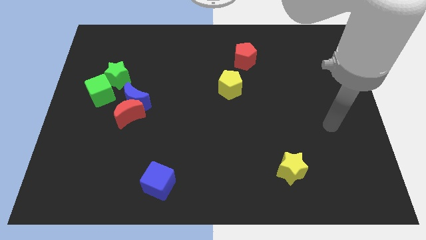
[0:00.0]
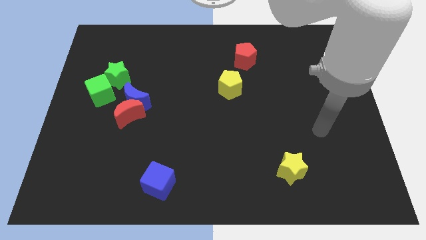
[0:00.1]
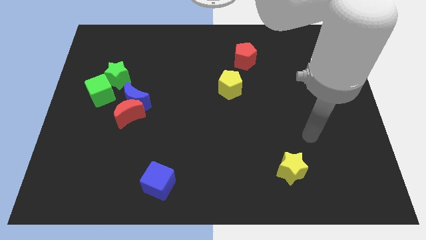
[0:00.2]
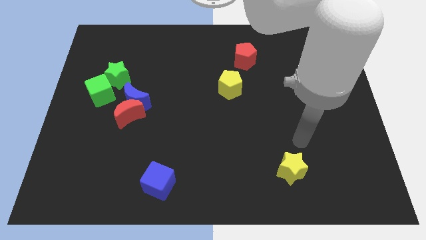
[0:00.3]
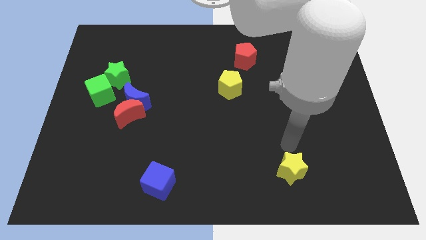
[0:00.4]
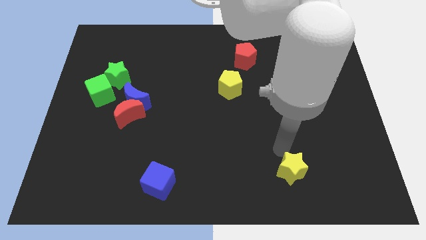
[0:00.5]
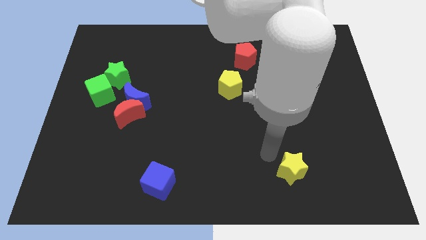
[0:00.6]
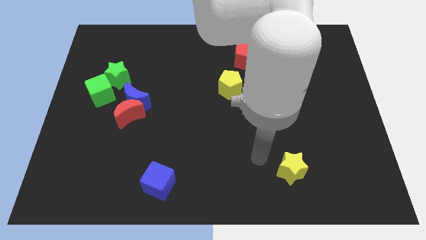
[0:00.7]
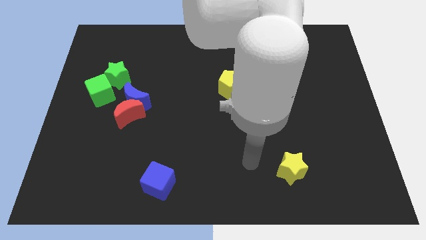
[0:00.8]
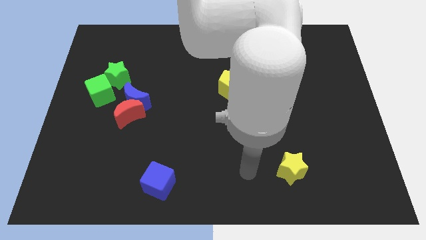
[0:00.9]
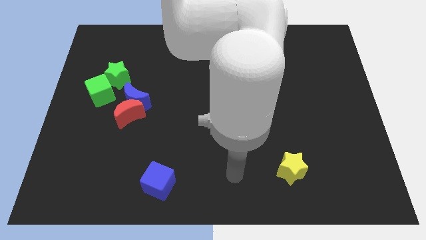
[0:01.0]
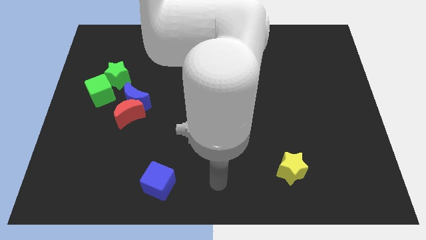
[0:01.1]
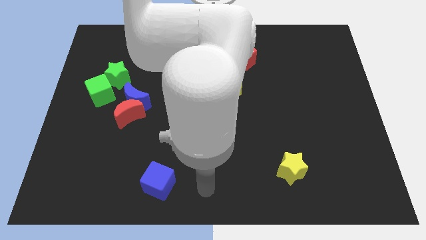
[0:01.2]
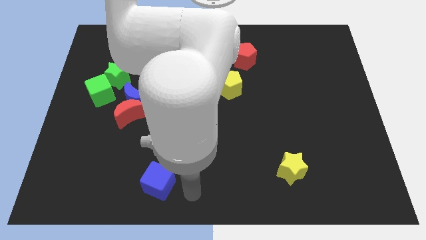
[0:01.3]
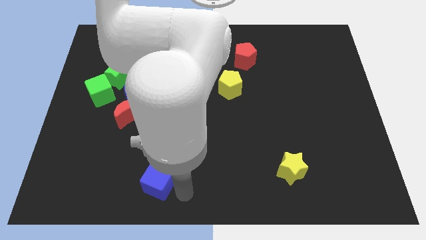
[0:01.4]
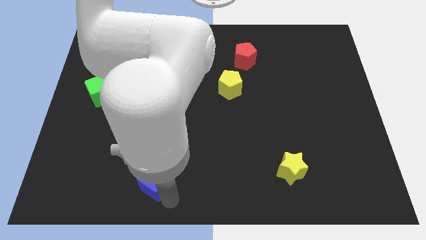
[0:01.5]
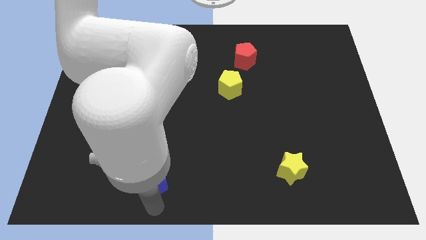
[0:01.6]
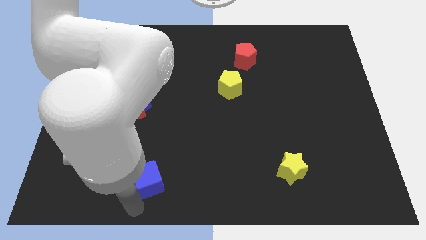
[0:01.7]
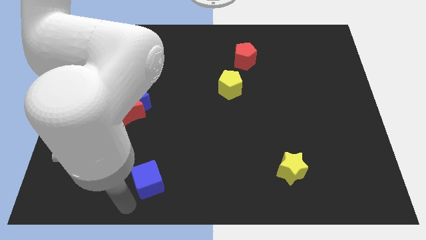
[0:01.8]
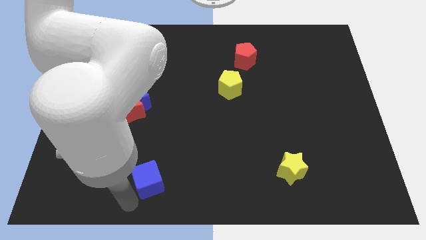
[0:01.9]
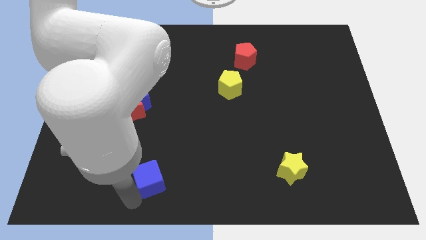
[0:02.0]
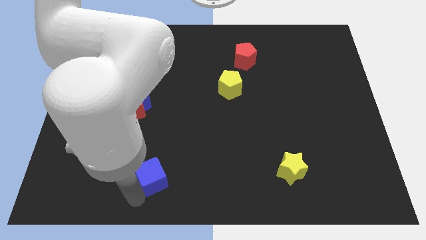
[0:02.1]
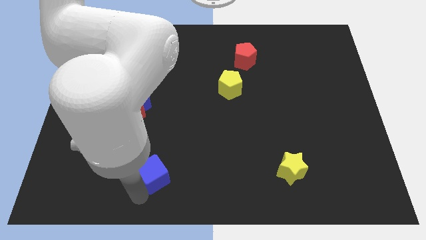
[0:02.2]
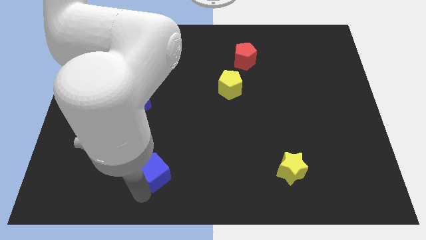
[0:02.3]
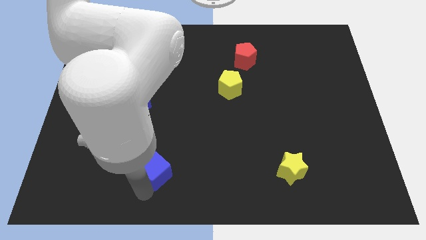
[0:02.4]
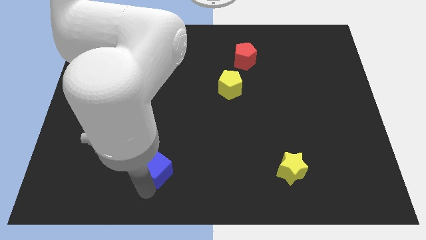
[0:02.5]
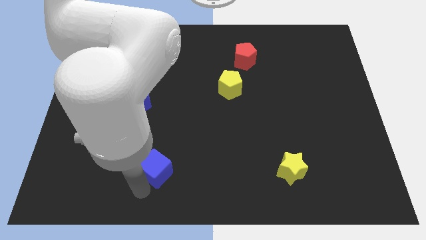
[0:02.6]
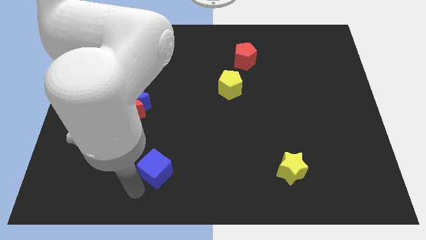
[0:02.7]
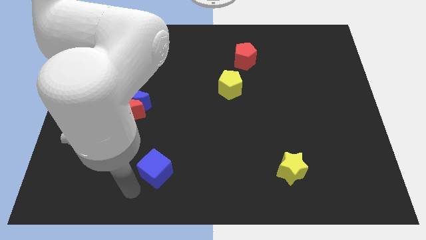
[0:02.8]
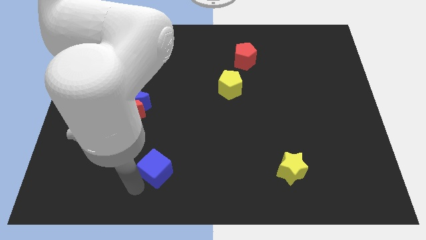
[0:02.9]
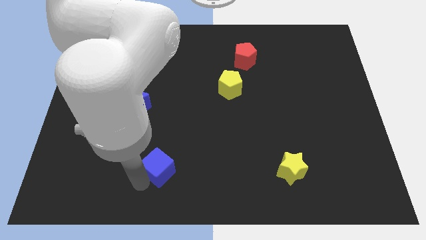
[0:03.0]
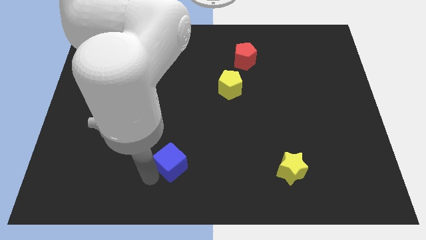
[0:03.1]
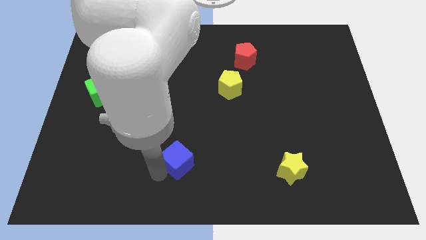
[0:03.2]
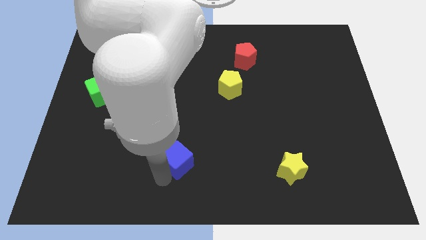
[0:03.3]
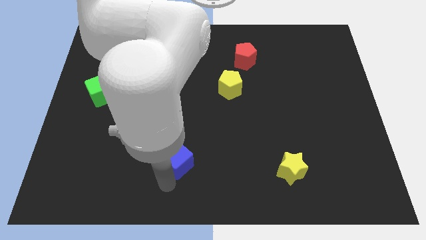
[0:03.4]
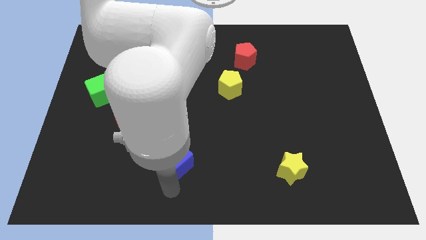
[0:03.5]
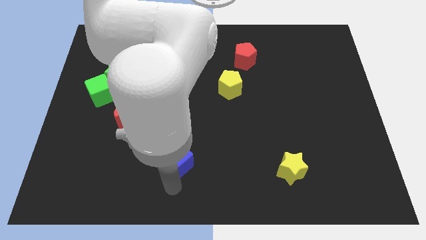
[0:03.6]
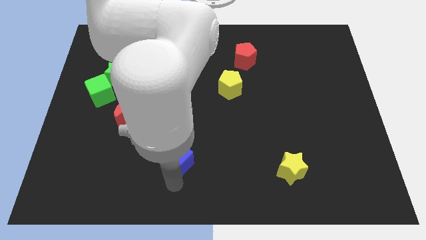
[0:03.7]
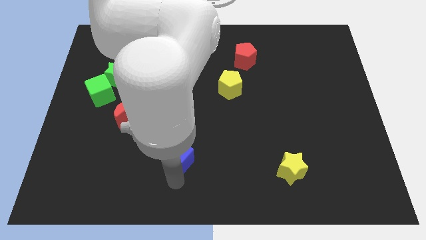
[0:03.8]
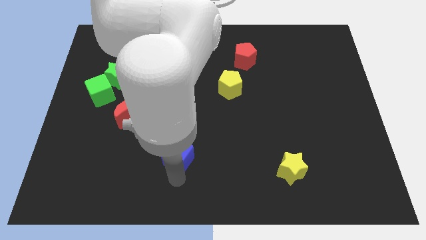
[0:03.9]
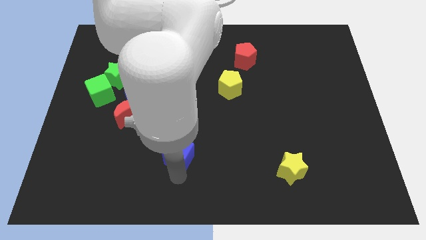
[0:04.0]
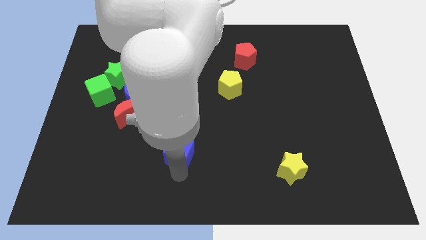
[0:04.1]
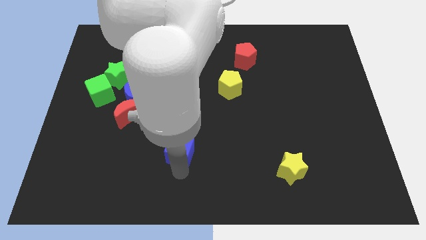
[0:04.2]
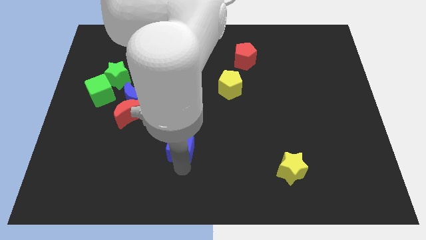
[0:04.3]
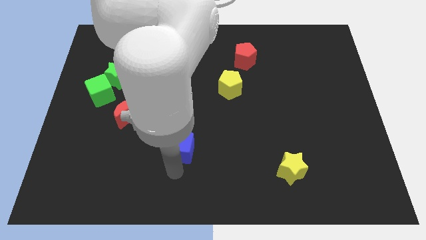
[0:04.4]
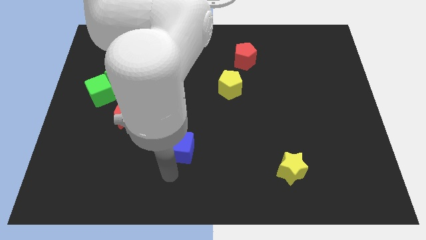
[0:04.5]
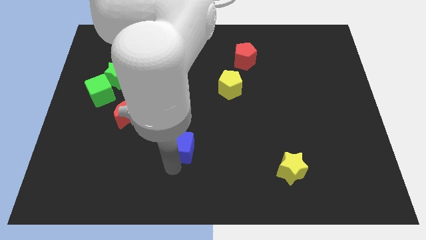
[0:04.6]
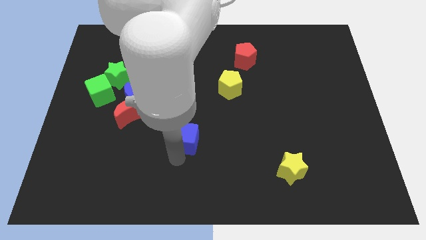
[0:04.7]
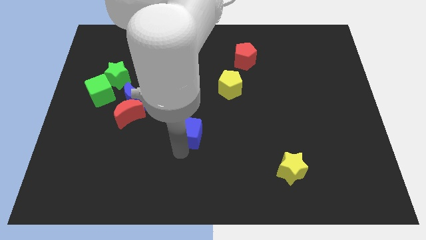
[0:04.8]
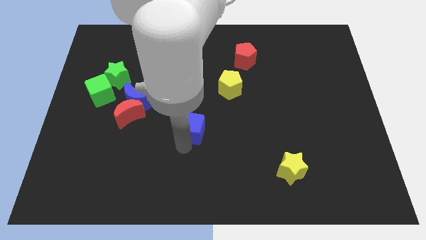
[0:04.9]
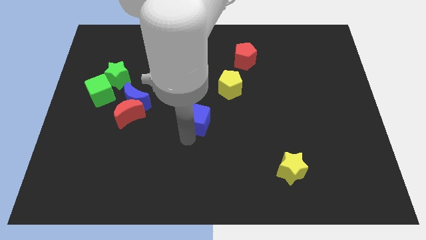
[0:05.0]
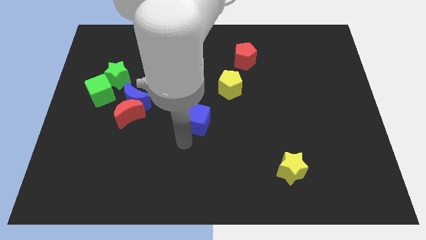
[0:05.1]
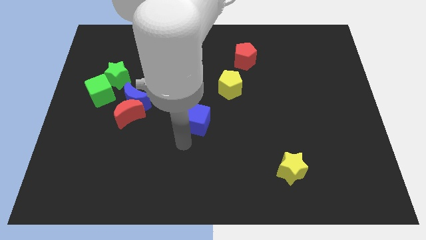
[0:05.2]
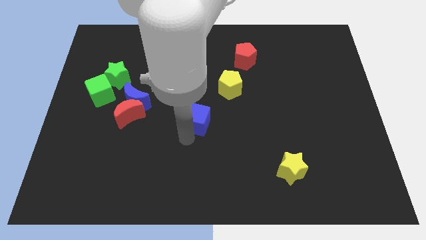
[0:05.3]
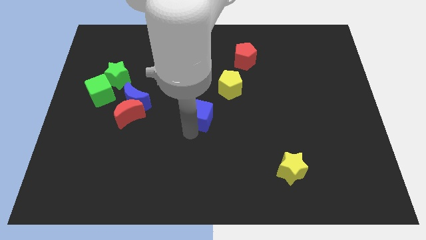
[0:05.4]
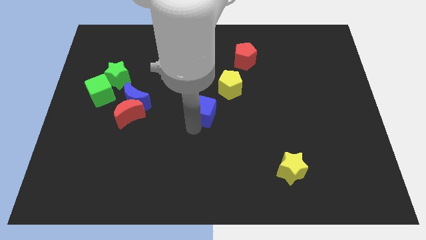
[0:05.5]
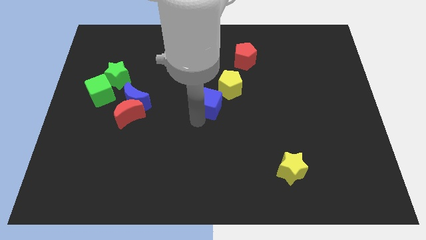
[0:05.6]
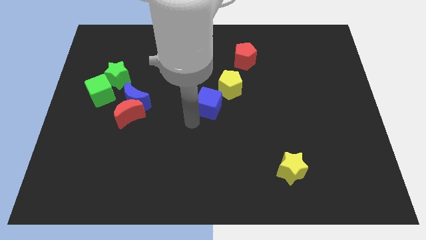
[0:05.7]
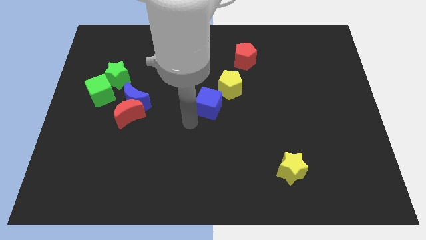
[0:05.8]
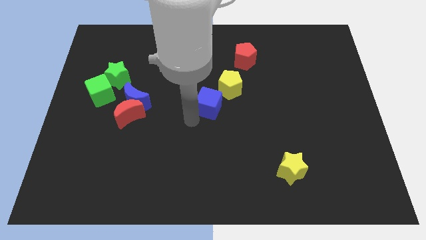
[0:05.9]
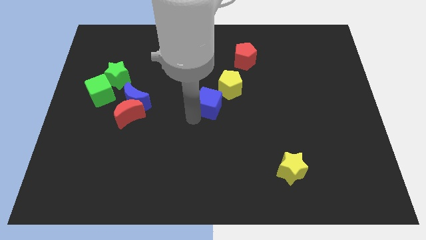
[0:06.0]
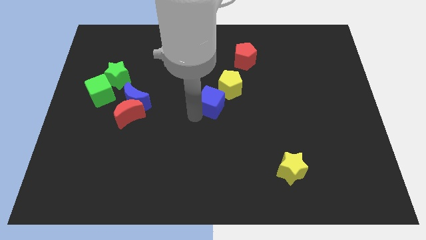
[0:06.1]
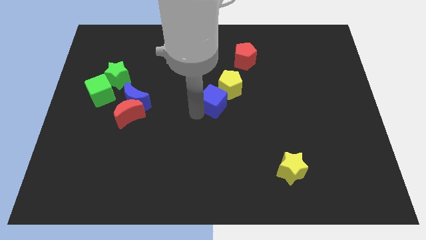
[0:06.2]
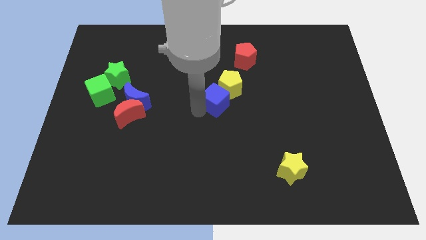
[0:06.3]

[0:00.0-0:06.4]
slide the blue cube towards the yellow pentagon
